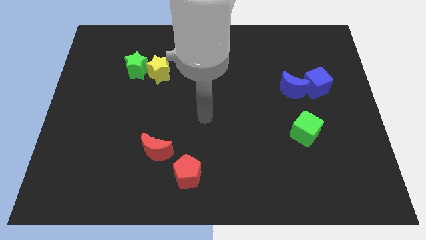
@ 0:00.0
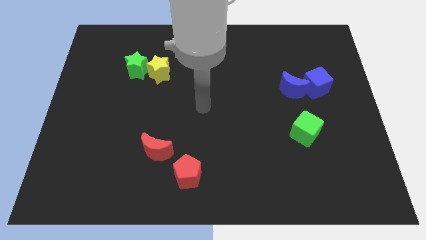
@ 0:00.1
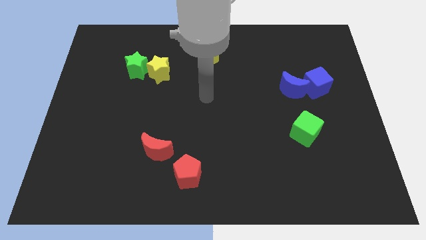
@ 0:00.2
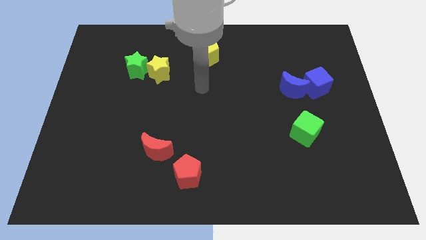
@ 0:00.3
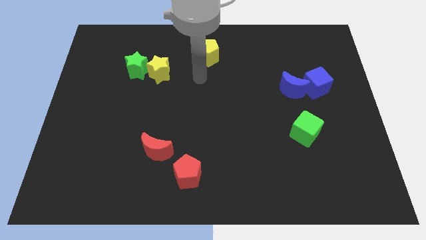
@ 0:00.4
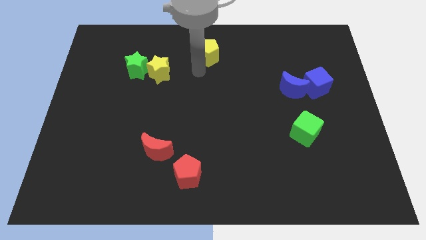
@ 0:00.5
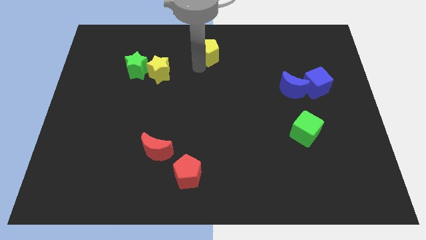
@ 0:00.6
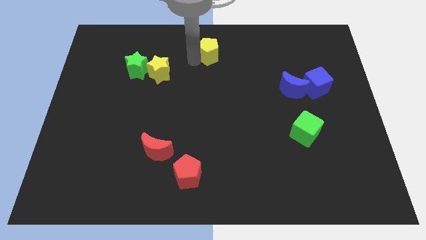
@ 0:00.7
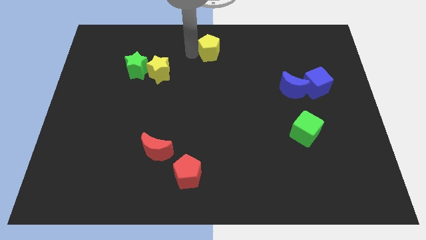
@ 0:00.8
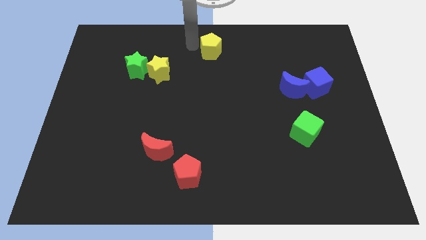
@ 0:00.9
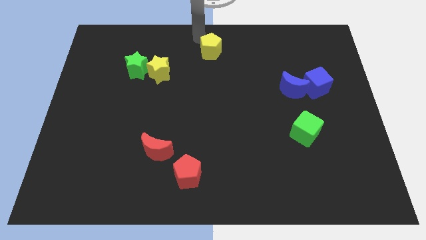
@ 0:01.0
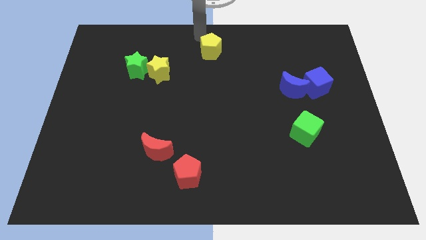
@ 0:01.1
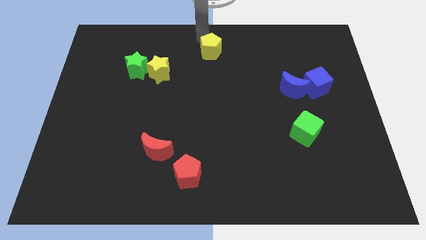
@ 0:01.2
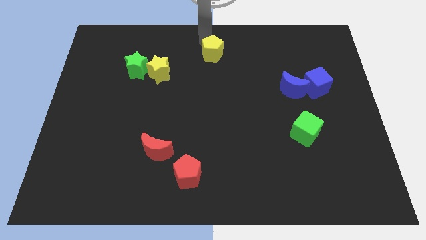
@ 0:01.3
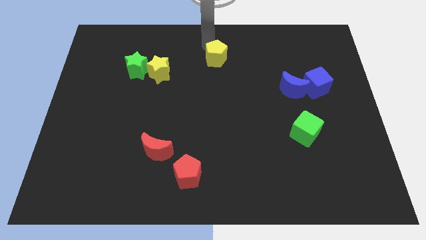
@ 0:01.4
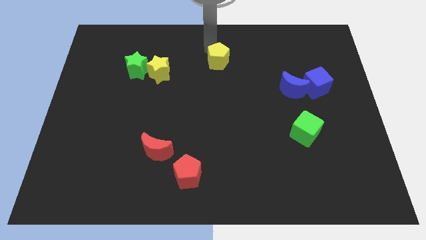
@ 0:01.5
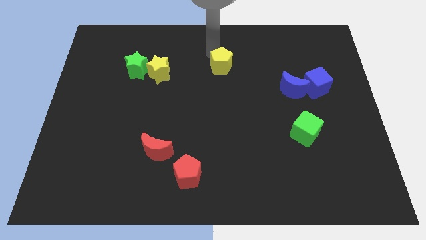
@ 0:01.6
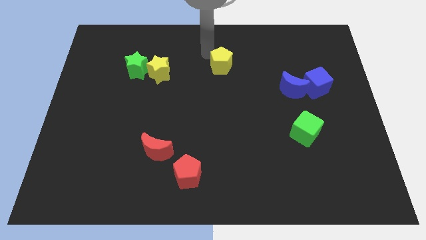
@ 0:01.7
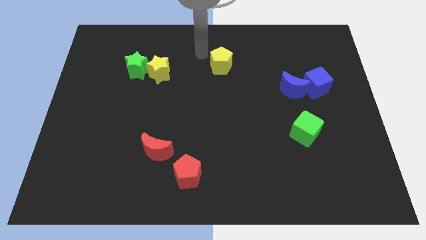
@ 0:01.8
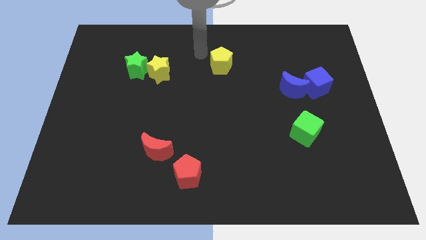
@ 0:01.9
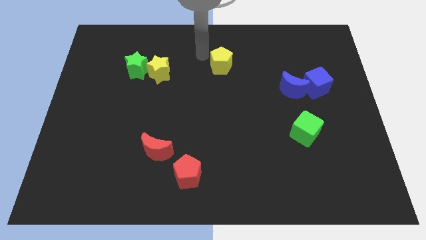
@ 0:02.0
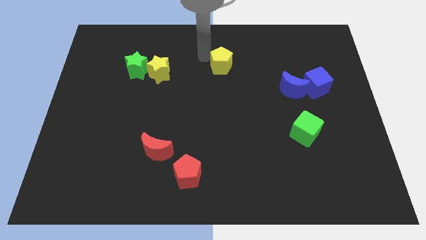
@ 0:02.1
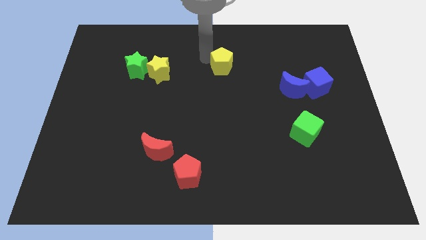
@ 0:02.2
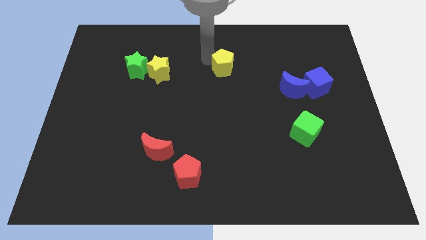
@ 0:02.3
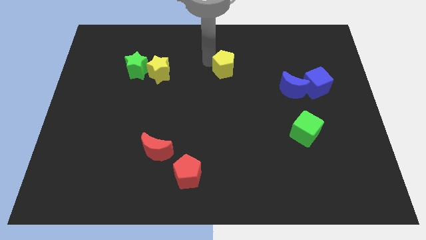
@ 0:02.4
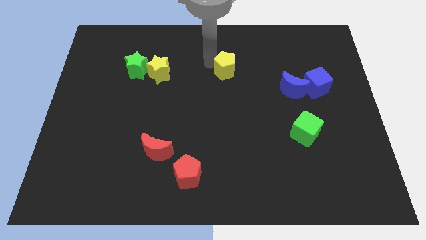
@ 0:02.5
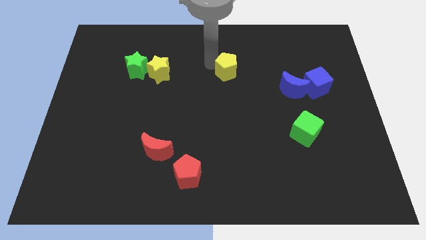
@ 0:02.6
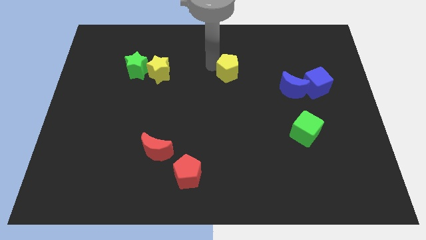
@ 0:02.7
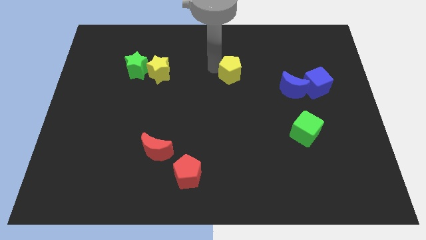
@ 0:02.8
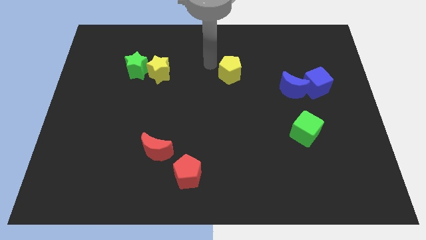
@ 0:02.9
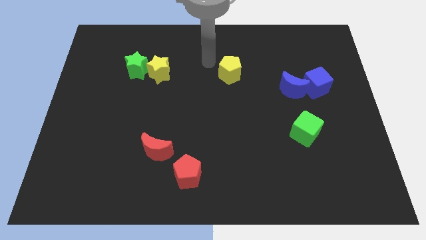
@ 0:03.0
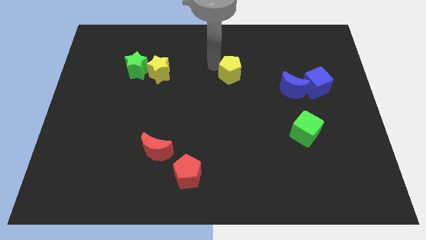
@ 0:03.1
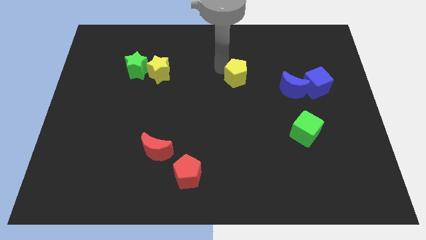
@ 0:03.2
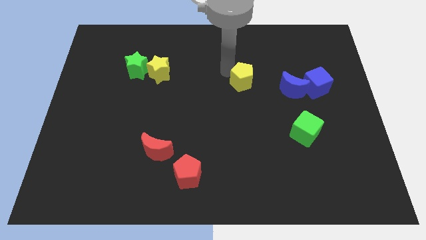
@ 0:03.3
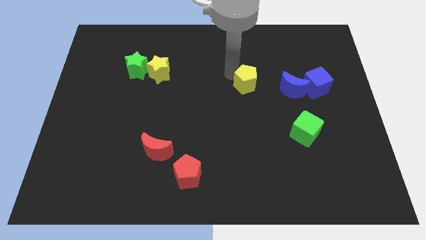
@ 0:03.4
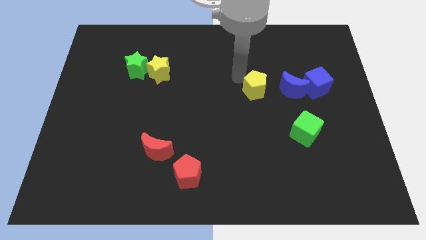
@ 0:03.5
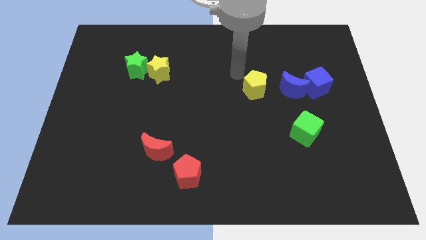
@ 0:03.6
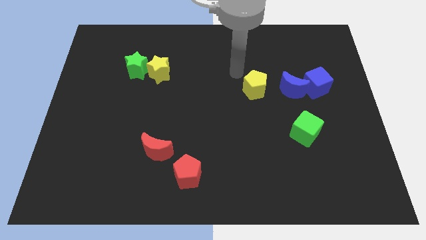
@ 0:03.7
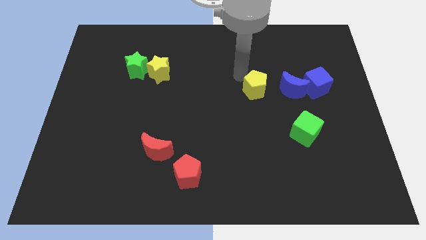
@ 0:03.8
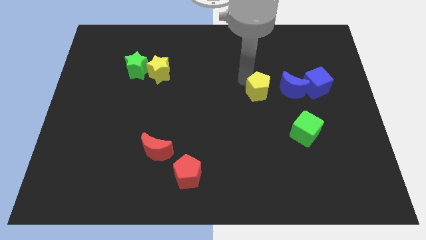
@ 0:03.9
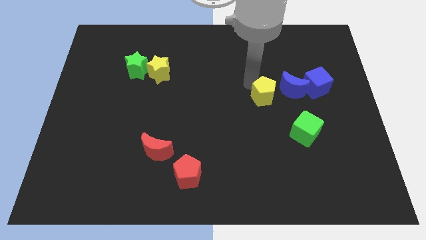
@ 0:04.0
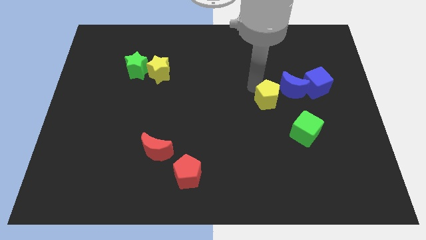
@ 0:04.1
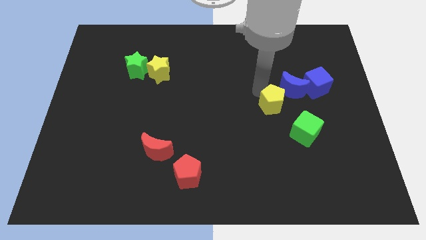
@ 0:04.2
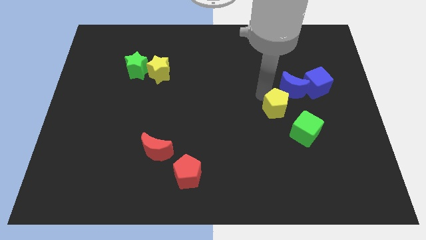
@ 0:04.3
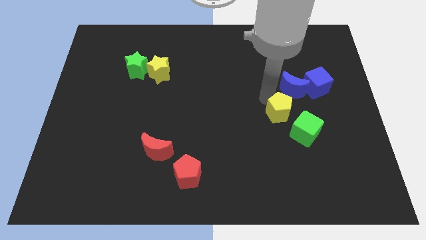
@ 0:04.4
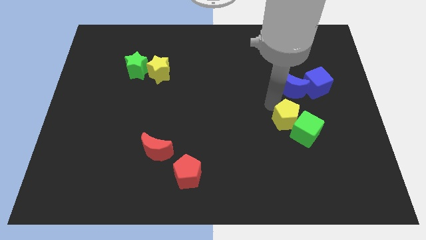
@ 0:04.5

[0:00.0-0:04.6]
push the yellow pentagon next to the green cube

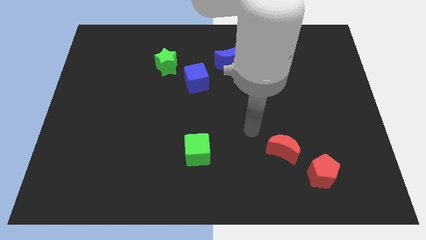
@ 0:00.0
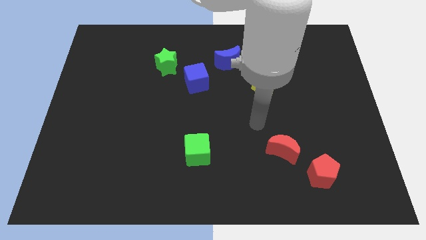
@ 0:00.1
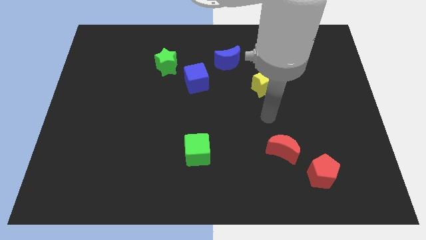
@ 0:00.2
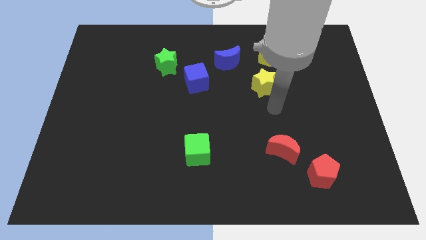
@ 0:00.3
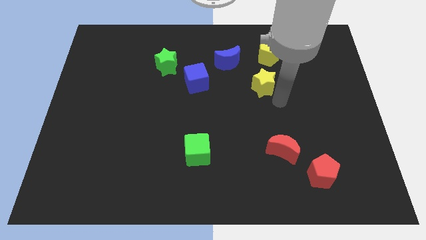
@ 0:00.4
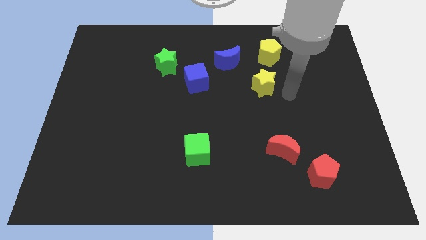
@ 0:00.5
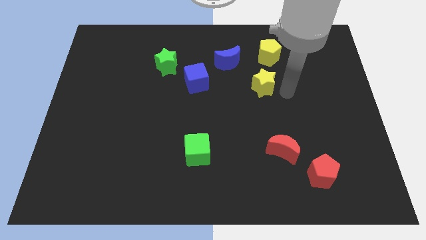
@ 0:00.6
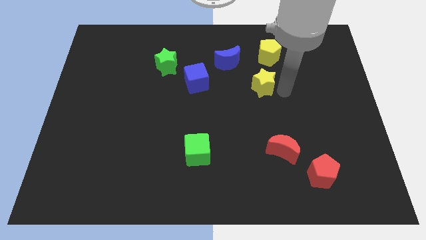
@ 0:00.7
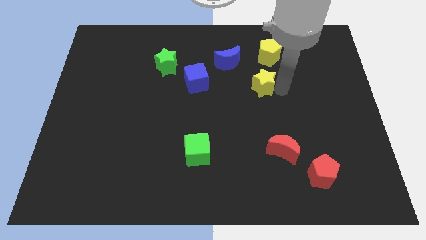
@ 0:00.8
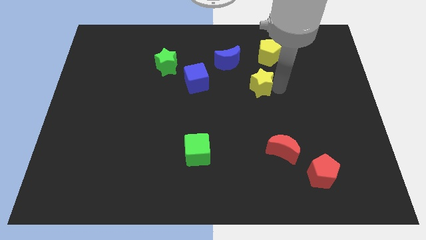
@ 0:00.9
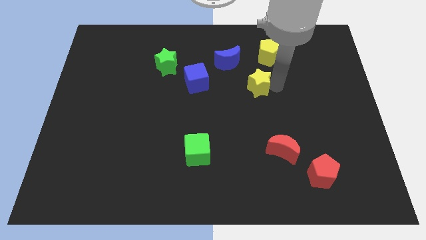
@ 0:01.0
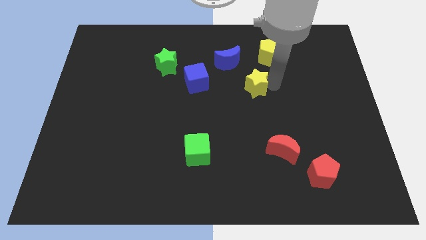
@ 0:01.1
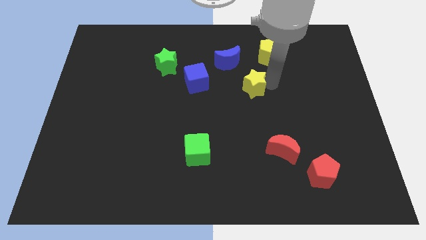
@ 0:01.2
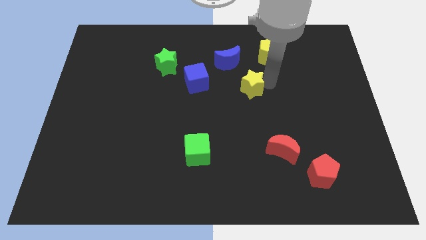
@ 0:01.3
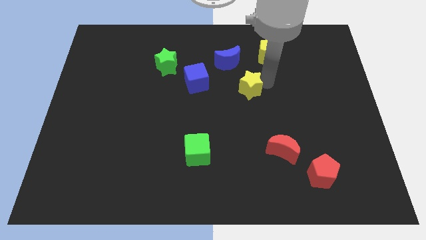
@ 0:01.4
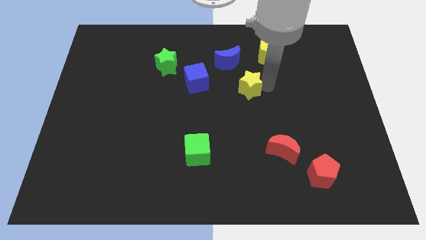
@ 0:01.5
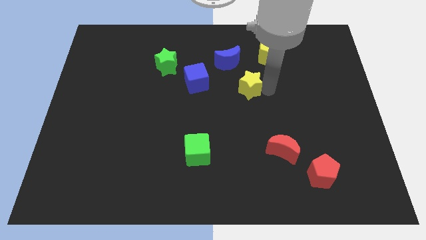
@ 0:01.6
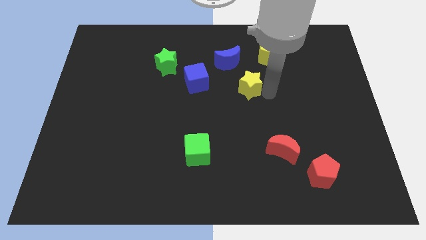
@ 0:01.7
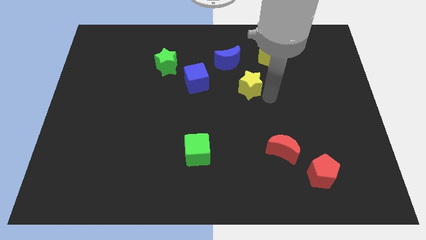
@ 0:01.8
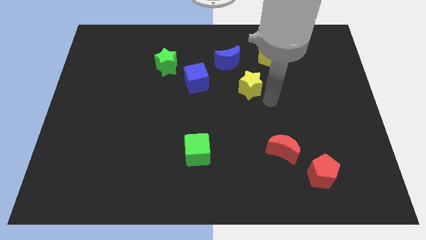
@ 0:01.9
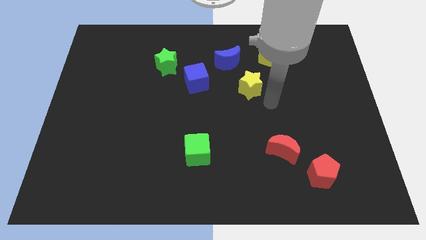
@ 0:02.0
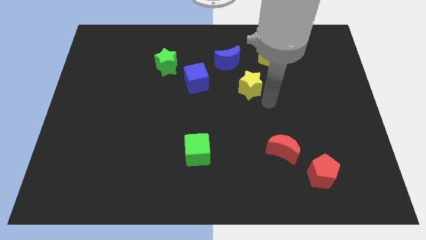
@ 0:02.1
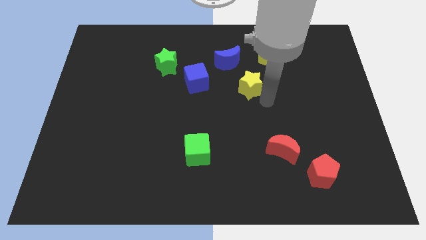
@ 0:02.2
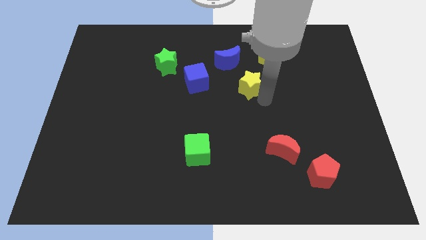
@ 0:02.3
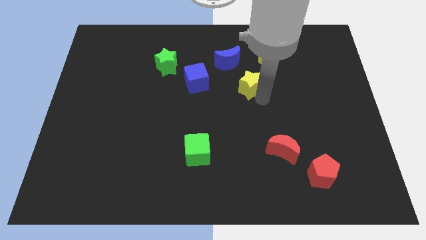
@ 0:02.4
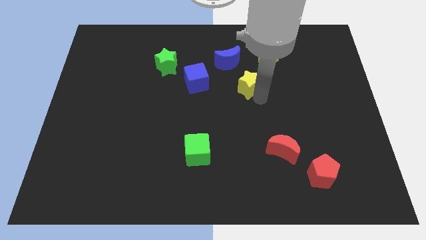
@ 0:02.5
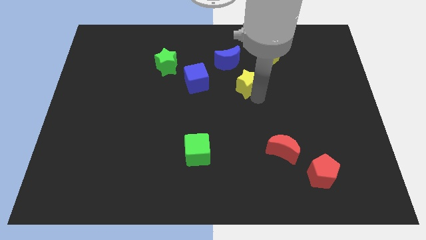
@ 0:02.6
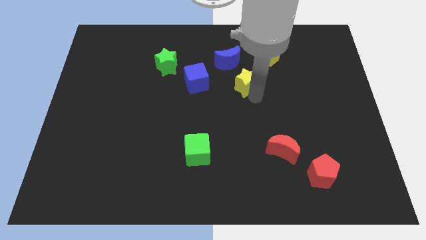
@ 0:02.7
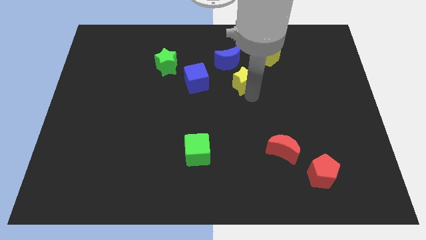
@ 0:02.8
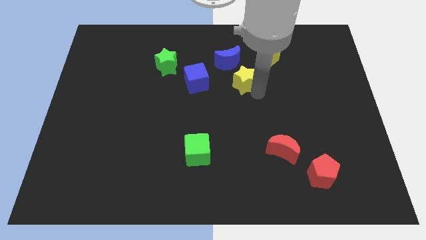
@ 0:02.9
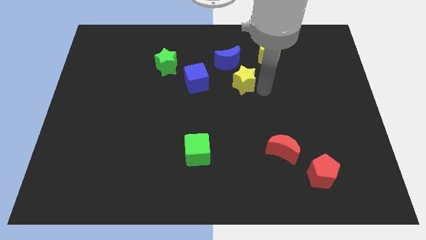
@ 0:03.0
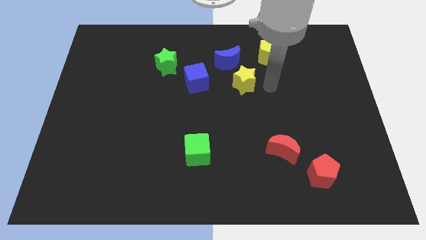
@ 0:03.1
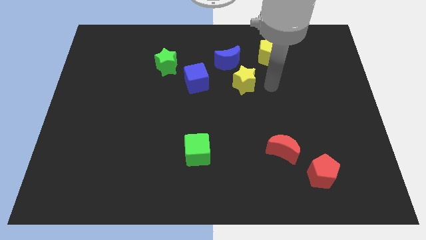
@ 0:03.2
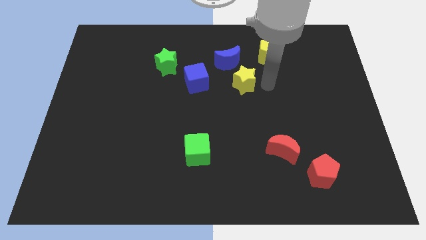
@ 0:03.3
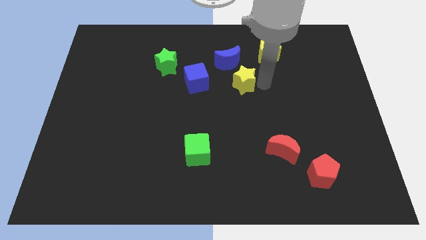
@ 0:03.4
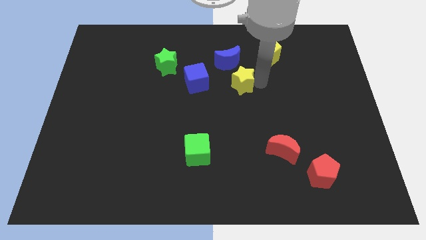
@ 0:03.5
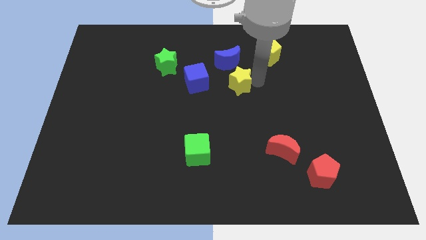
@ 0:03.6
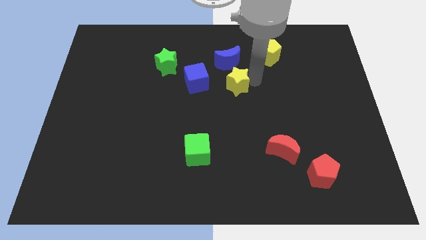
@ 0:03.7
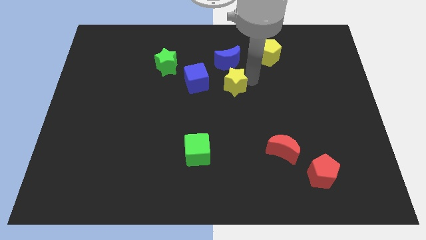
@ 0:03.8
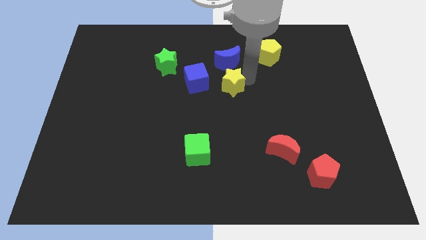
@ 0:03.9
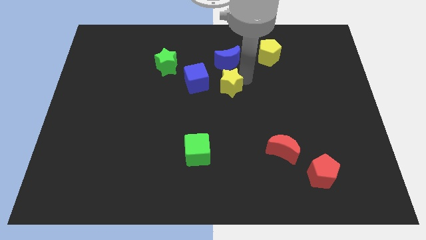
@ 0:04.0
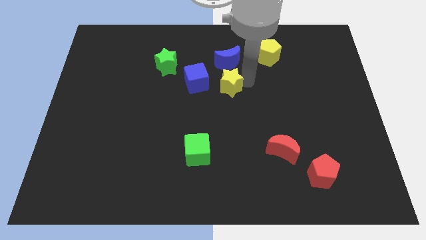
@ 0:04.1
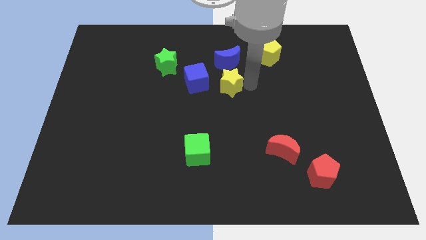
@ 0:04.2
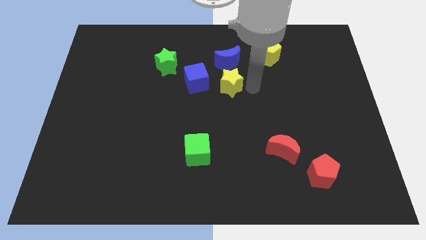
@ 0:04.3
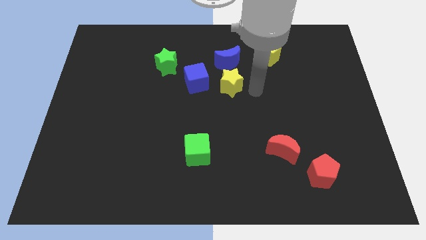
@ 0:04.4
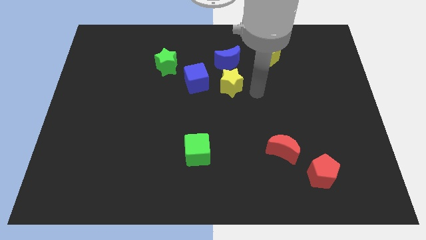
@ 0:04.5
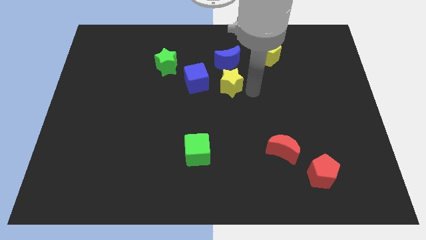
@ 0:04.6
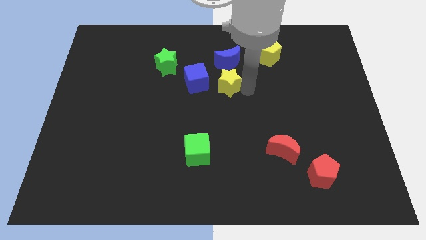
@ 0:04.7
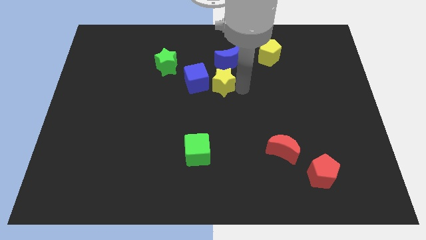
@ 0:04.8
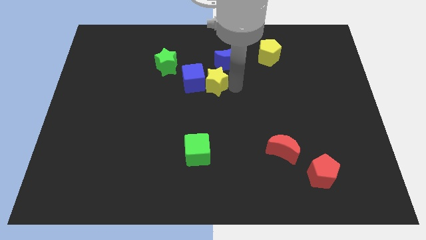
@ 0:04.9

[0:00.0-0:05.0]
slide the yellow star towards the blue cube
